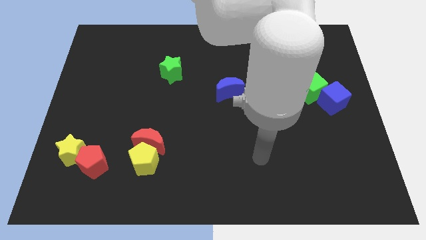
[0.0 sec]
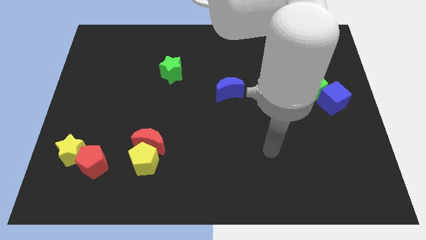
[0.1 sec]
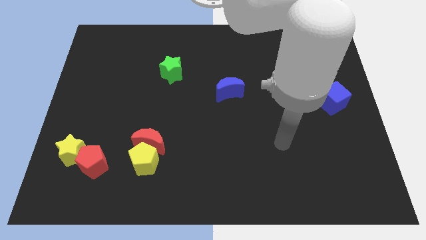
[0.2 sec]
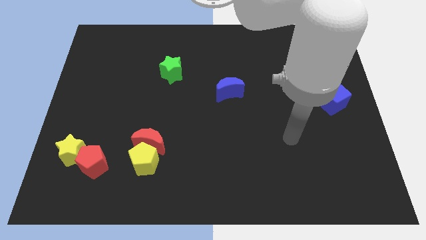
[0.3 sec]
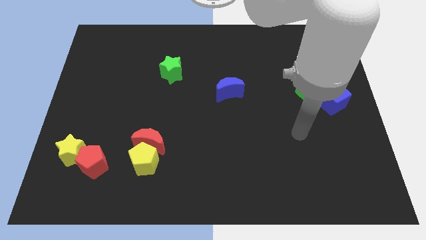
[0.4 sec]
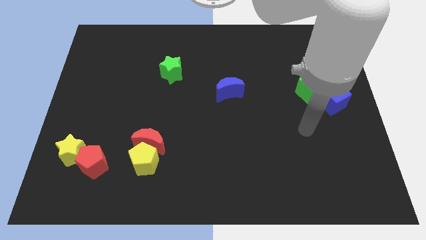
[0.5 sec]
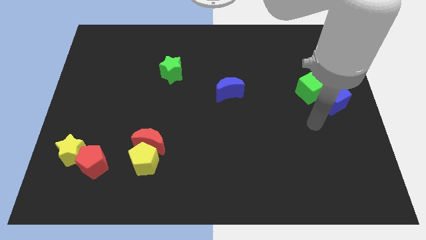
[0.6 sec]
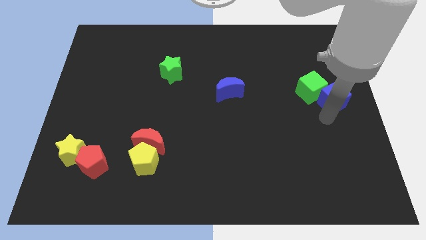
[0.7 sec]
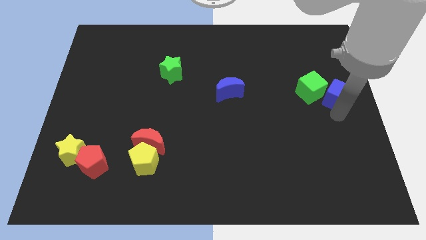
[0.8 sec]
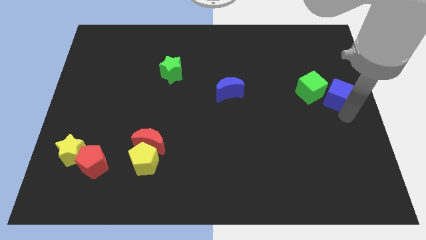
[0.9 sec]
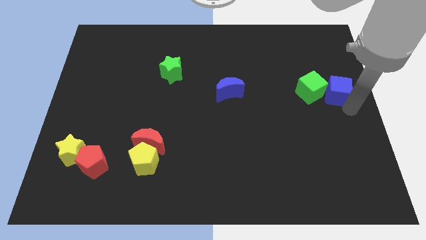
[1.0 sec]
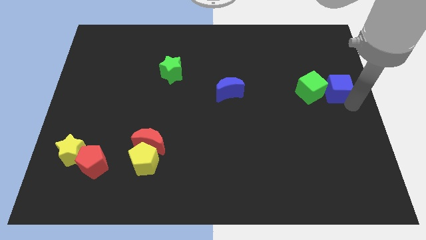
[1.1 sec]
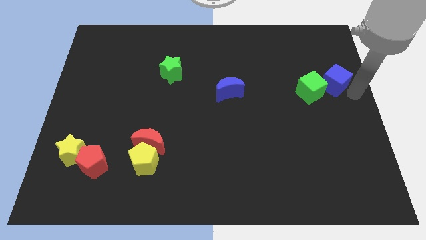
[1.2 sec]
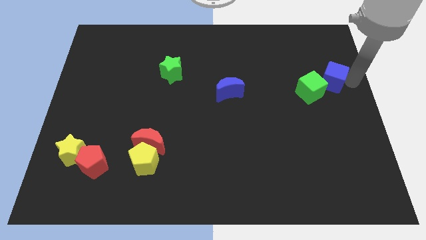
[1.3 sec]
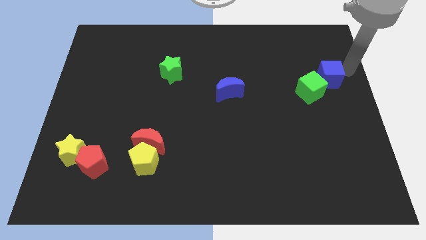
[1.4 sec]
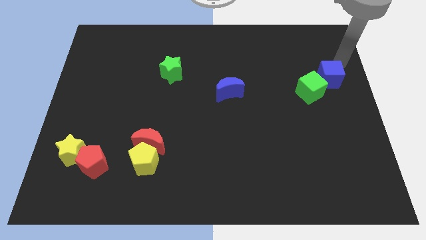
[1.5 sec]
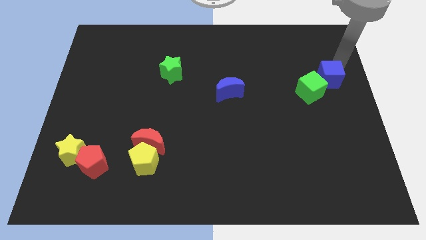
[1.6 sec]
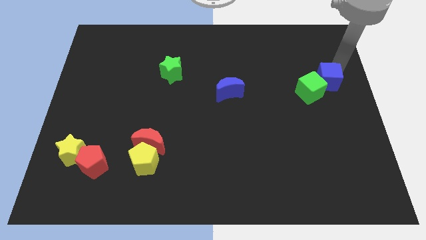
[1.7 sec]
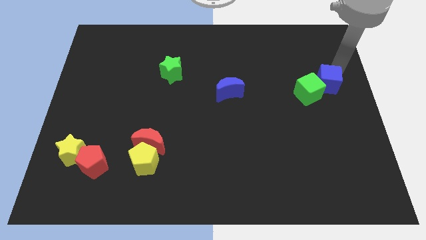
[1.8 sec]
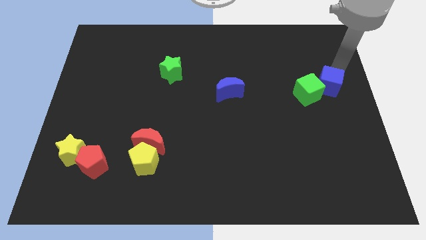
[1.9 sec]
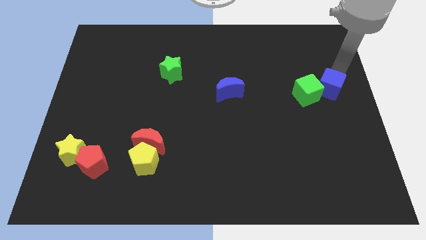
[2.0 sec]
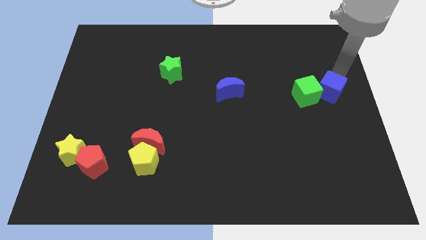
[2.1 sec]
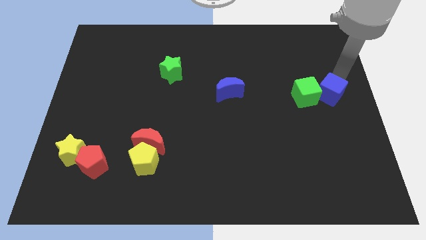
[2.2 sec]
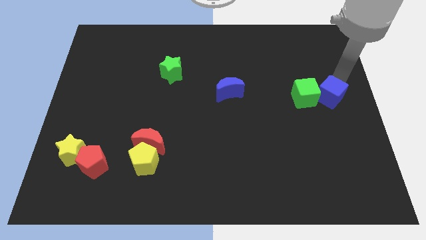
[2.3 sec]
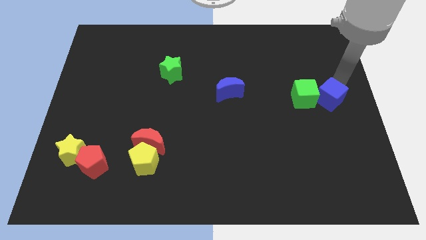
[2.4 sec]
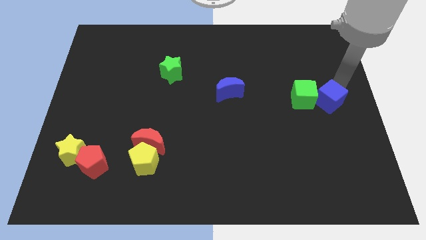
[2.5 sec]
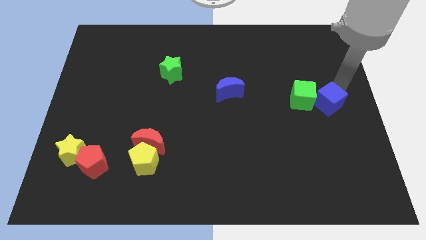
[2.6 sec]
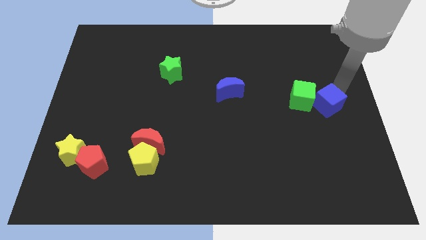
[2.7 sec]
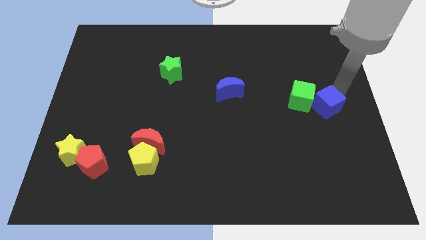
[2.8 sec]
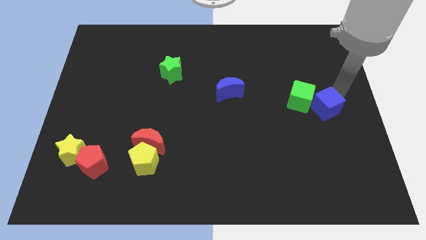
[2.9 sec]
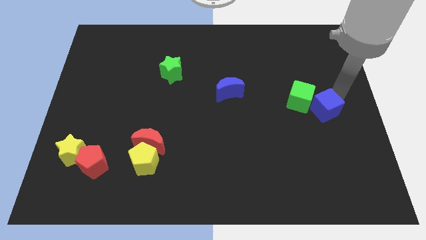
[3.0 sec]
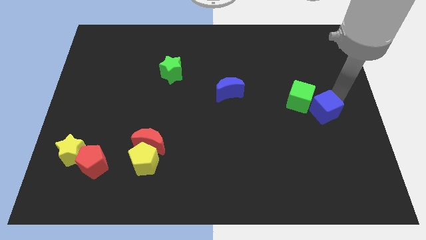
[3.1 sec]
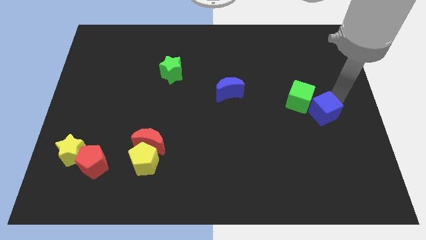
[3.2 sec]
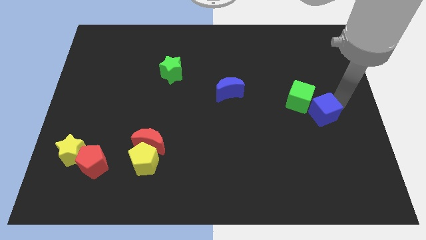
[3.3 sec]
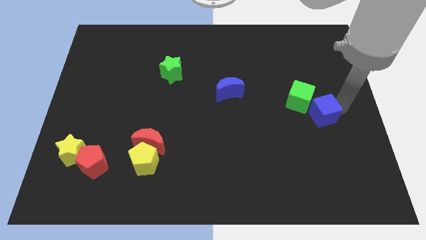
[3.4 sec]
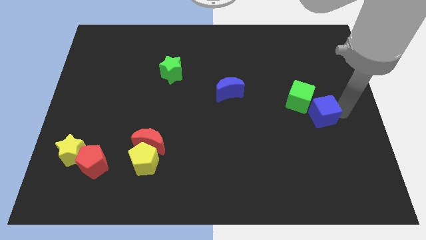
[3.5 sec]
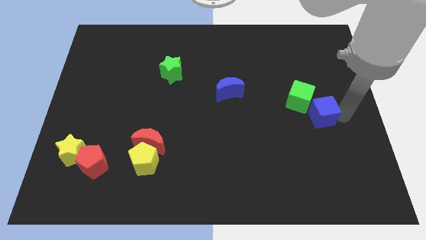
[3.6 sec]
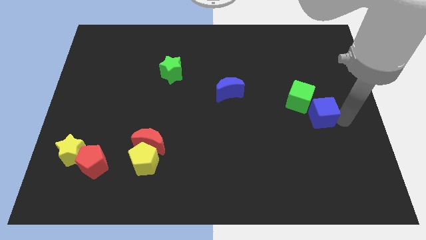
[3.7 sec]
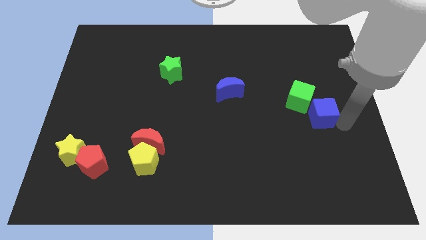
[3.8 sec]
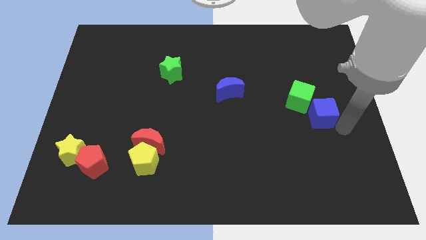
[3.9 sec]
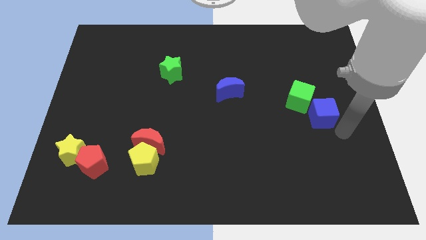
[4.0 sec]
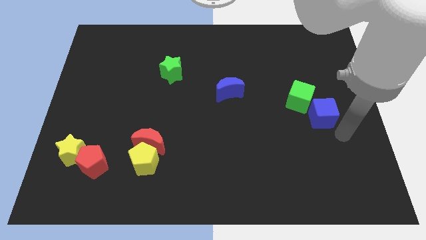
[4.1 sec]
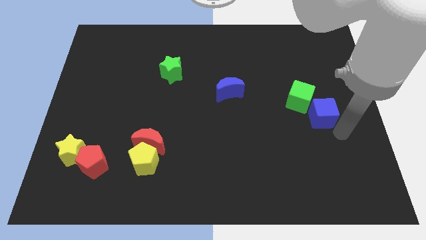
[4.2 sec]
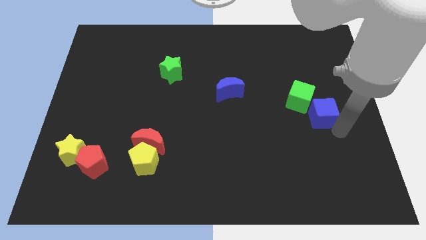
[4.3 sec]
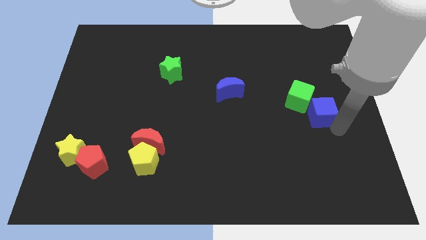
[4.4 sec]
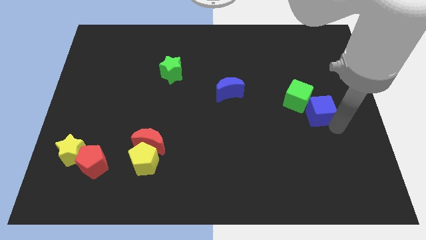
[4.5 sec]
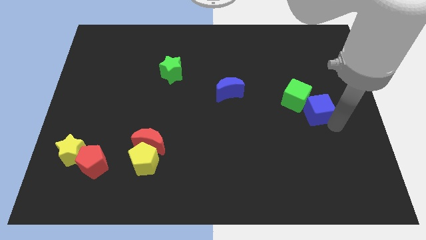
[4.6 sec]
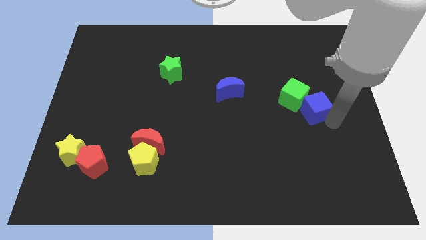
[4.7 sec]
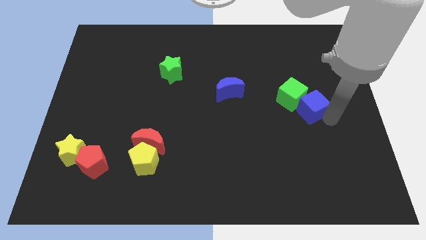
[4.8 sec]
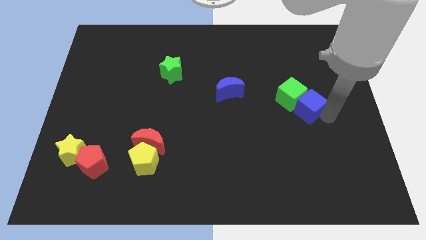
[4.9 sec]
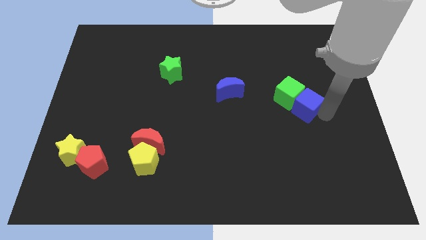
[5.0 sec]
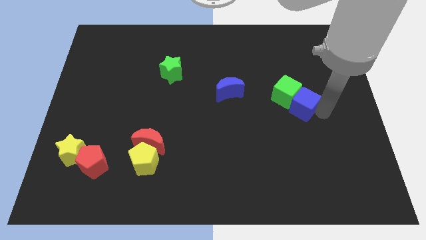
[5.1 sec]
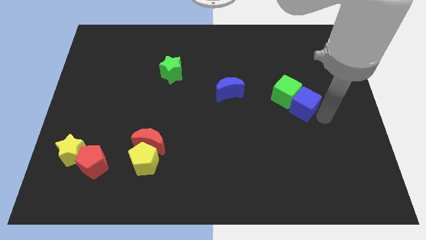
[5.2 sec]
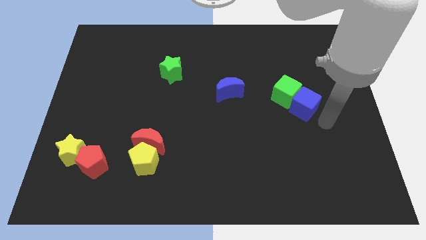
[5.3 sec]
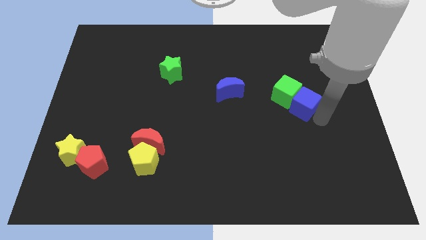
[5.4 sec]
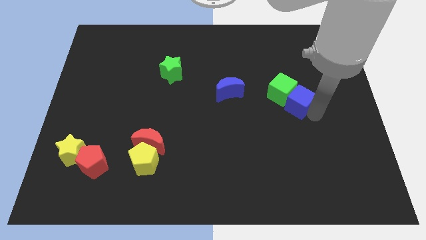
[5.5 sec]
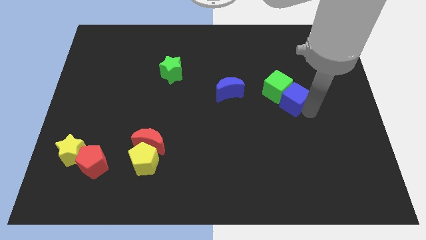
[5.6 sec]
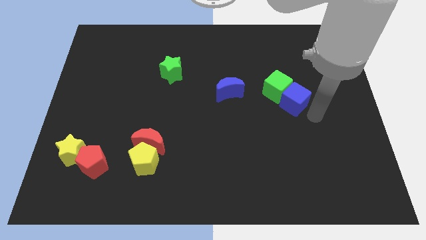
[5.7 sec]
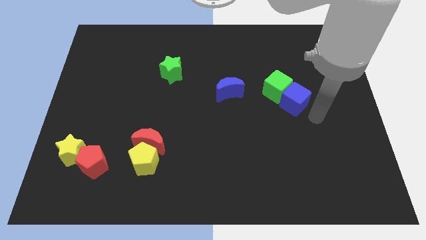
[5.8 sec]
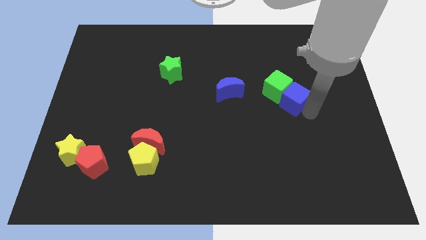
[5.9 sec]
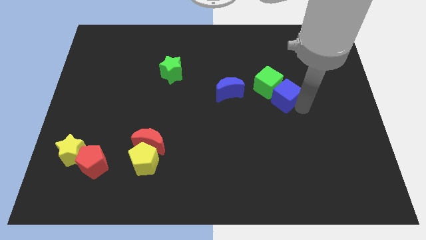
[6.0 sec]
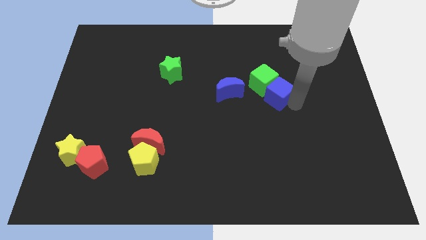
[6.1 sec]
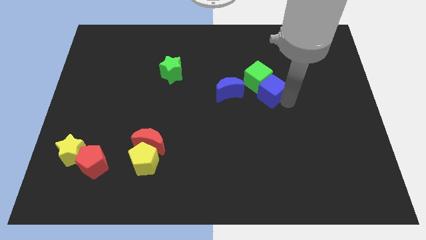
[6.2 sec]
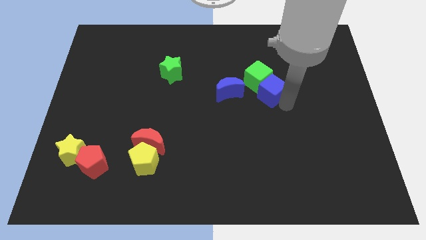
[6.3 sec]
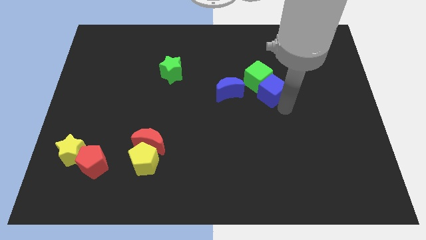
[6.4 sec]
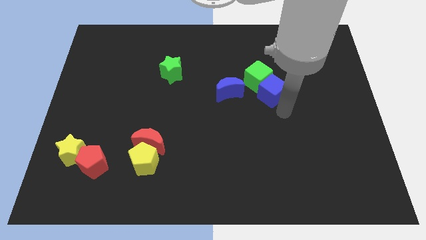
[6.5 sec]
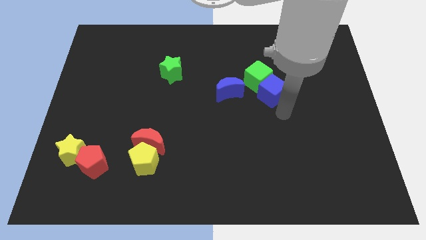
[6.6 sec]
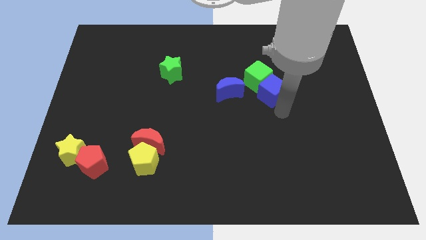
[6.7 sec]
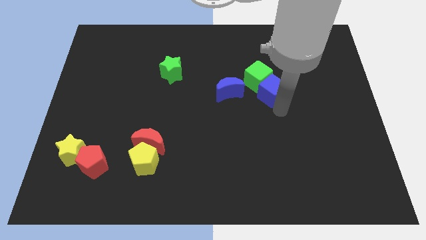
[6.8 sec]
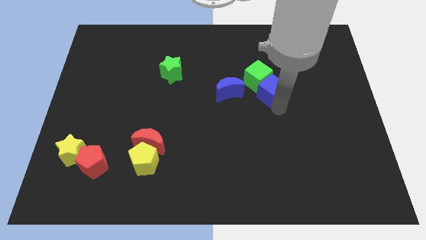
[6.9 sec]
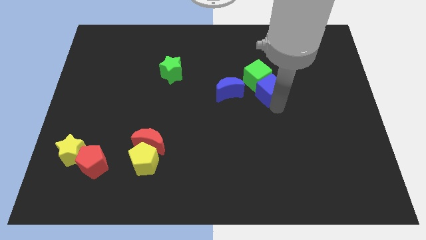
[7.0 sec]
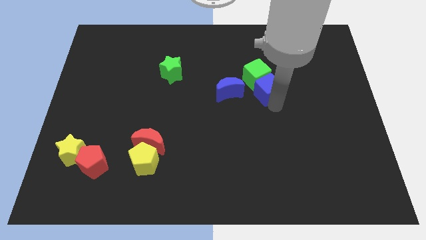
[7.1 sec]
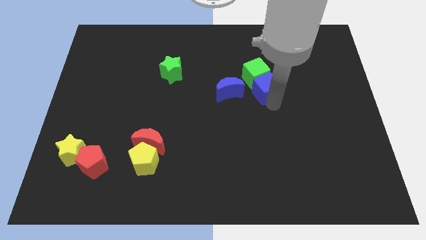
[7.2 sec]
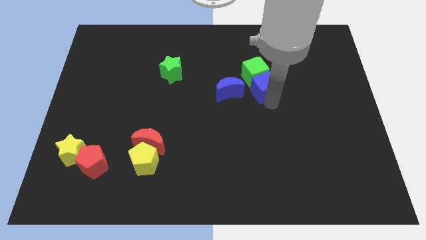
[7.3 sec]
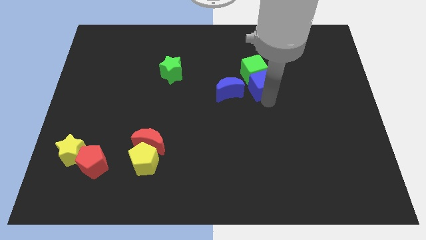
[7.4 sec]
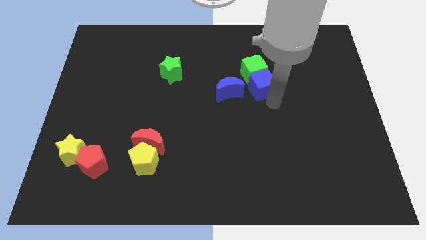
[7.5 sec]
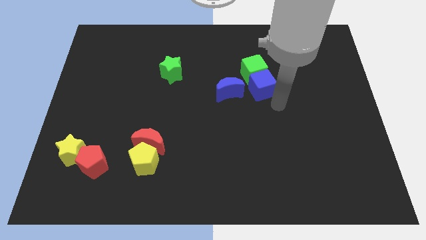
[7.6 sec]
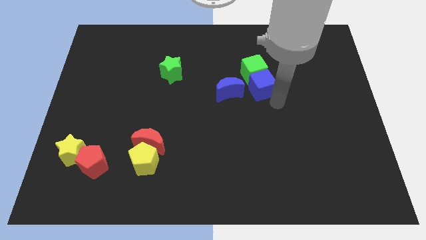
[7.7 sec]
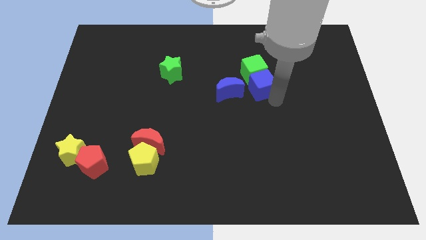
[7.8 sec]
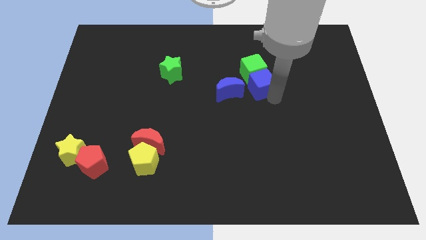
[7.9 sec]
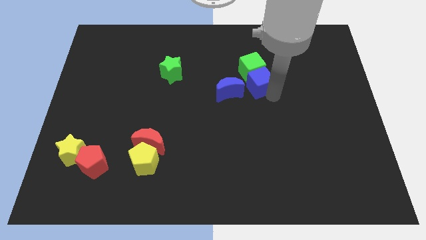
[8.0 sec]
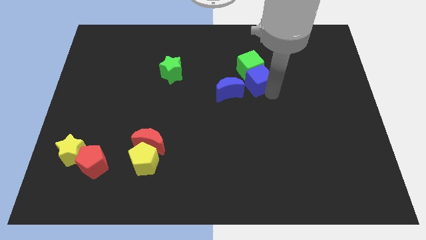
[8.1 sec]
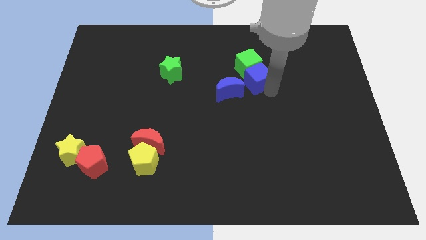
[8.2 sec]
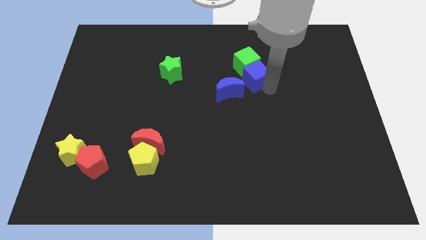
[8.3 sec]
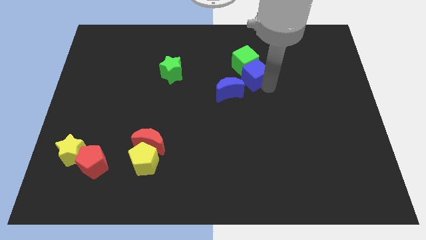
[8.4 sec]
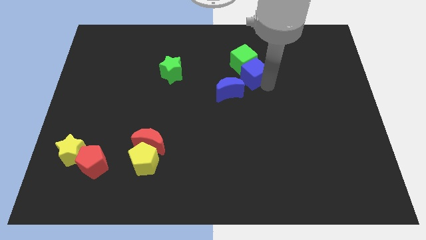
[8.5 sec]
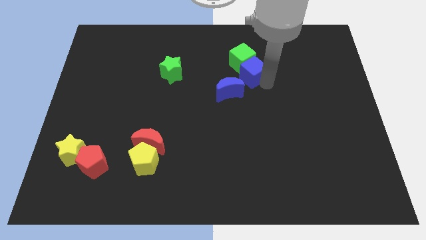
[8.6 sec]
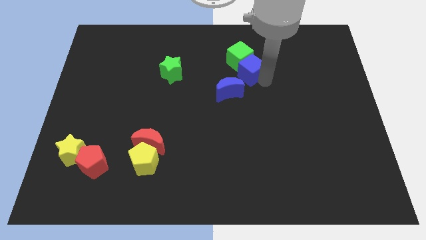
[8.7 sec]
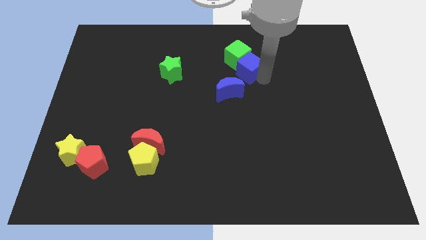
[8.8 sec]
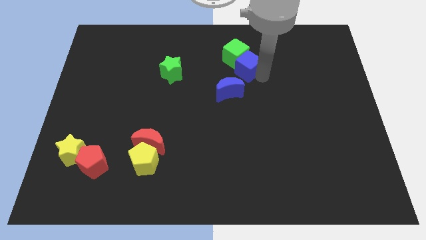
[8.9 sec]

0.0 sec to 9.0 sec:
push the blue cube to the top of the blue moon
